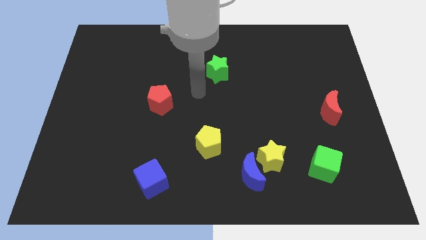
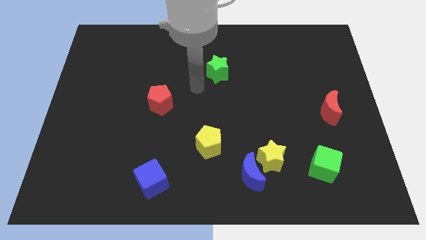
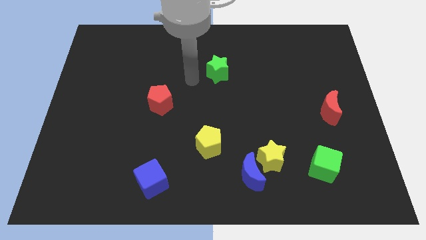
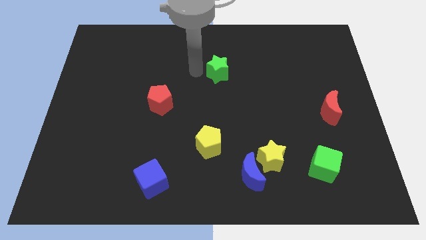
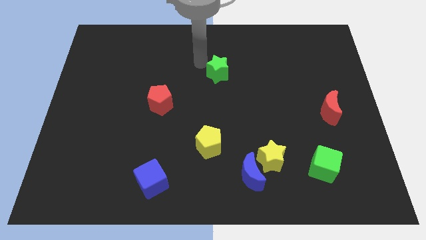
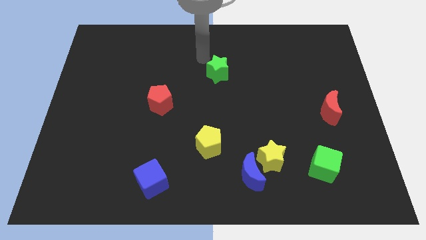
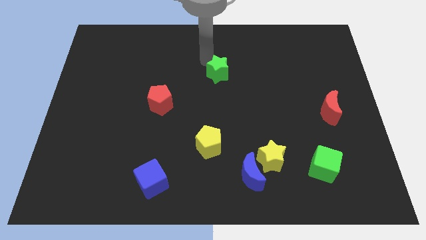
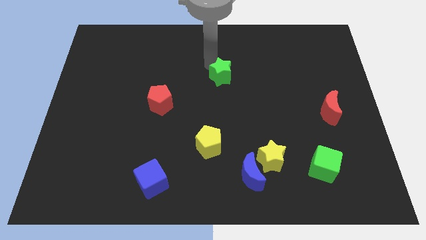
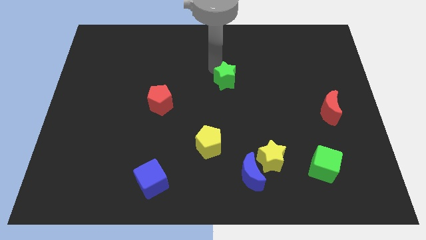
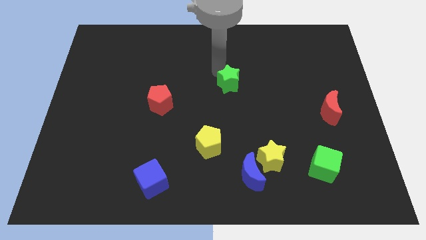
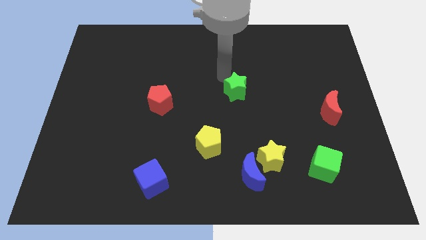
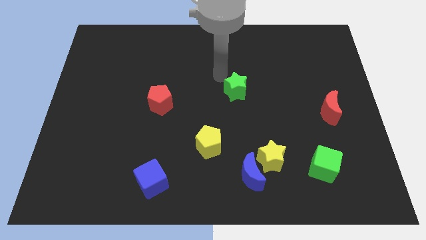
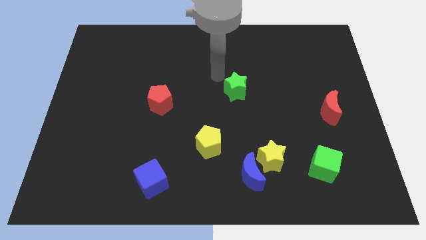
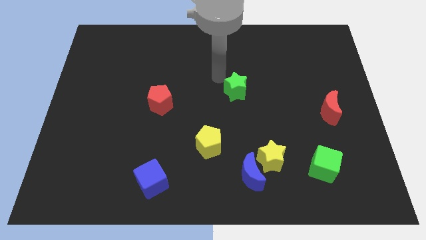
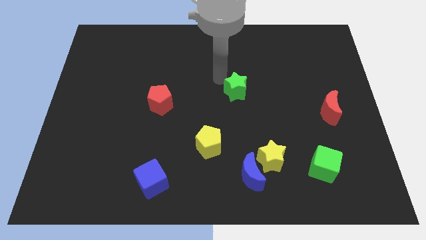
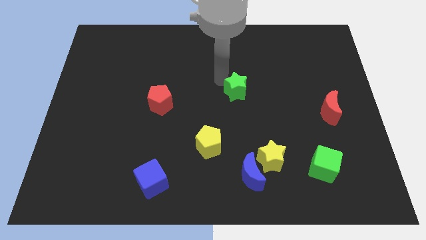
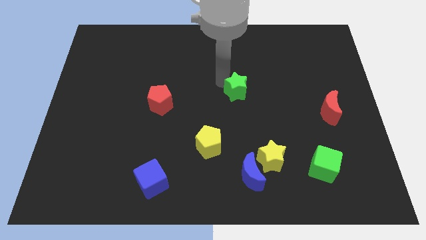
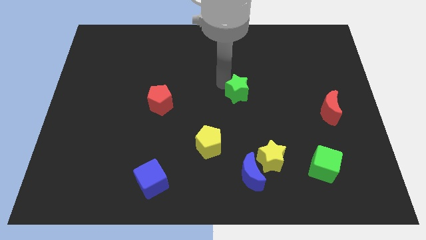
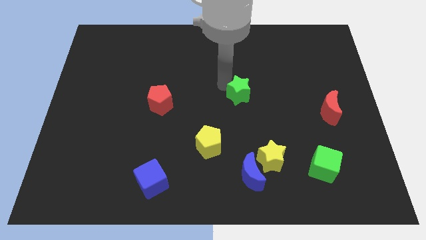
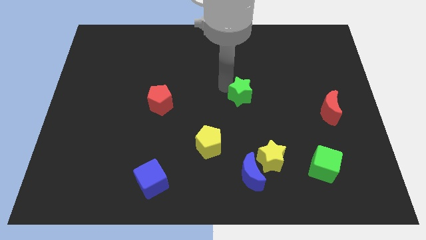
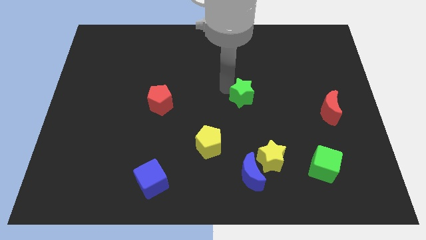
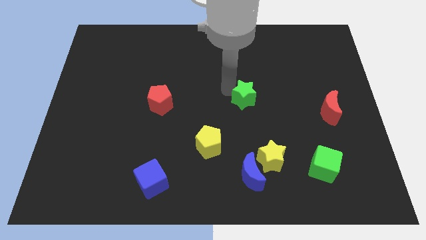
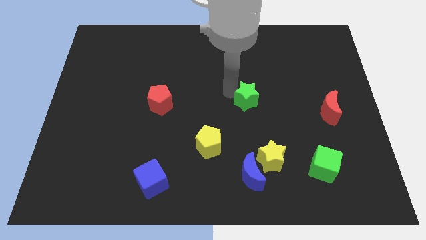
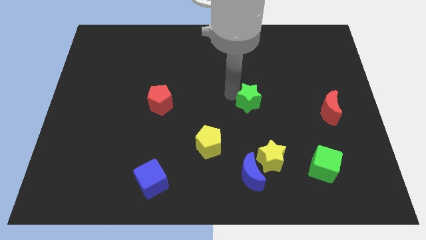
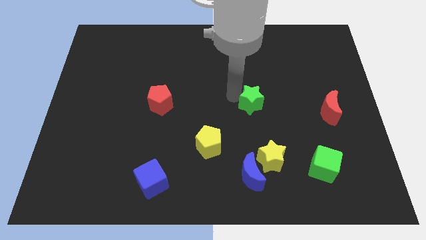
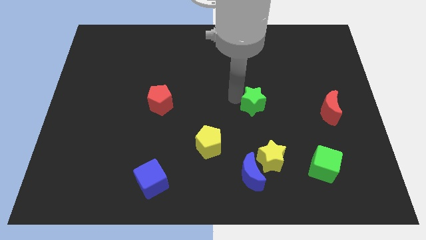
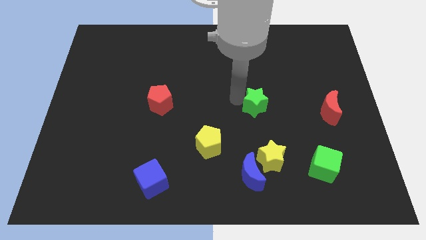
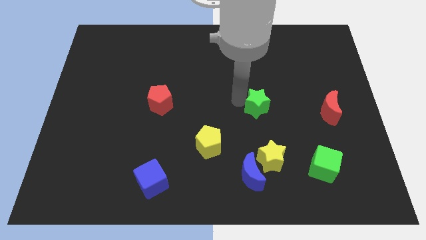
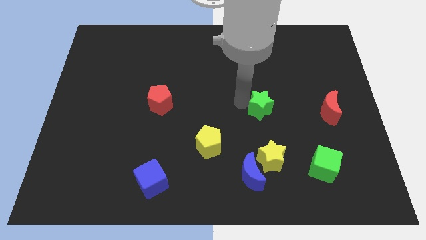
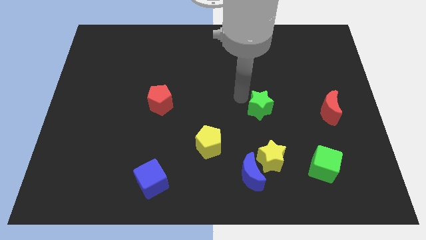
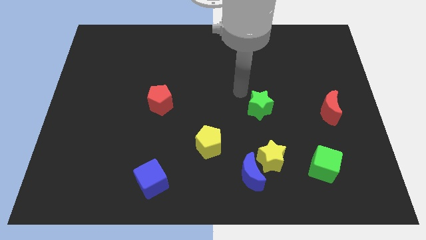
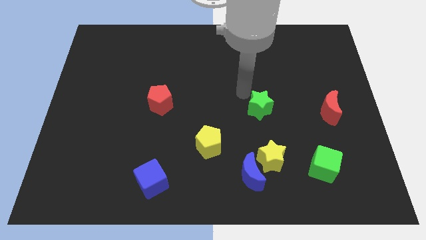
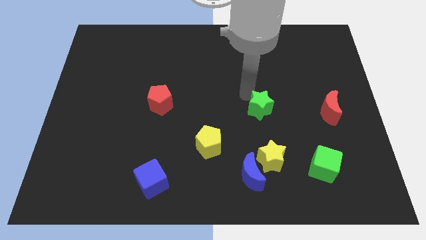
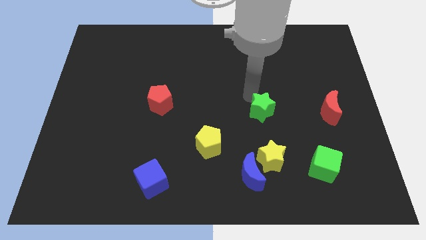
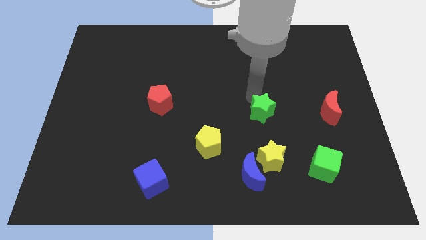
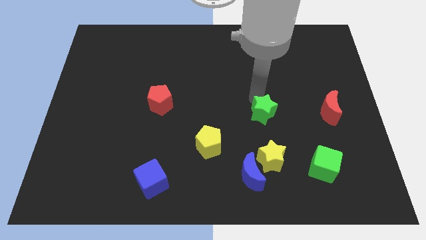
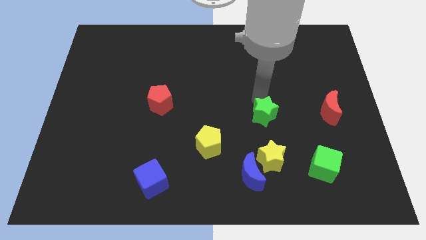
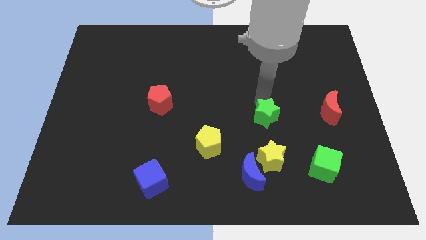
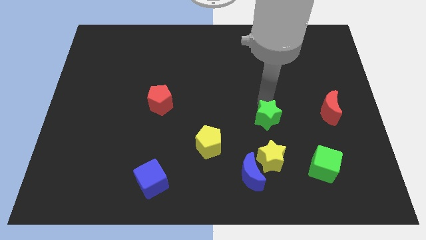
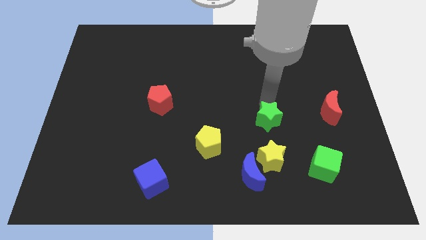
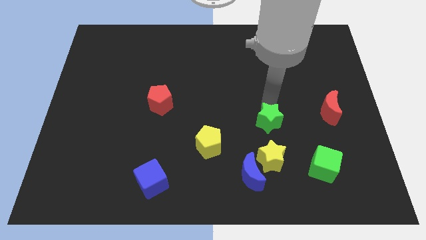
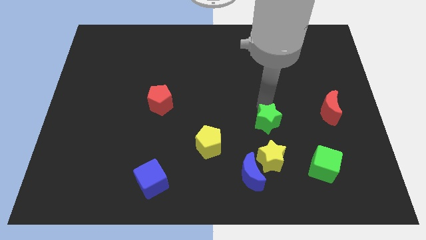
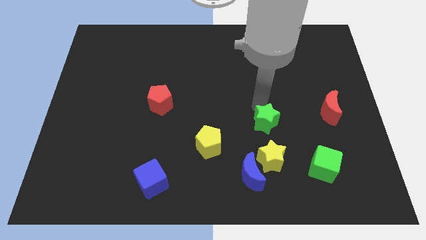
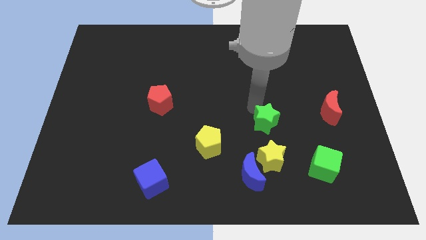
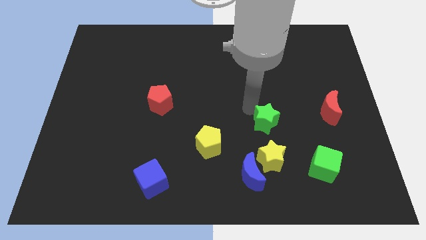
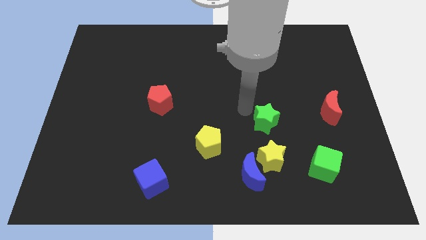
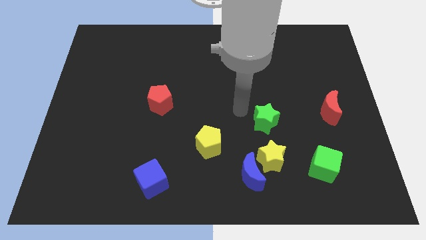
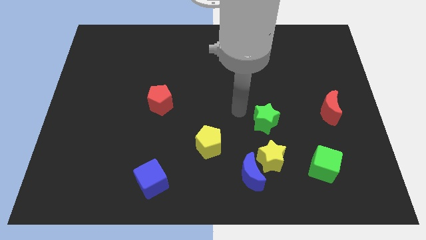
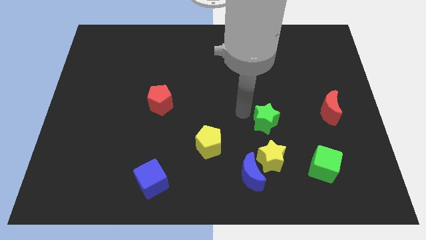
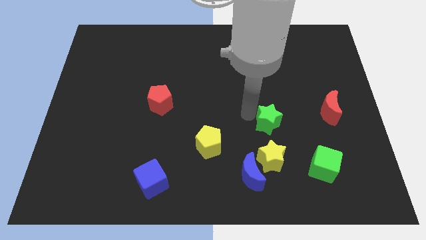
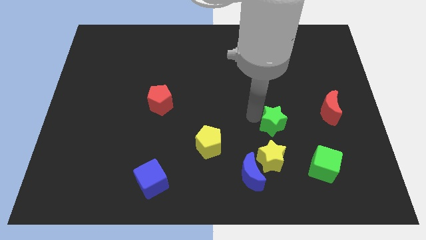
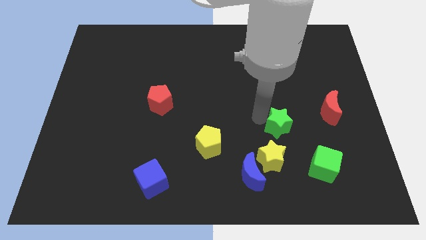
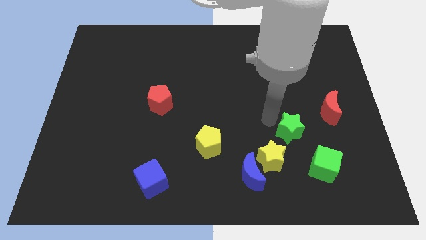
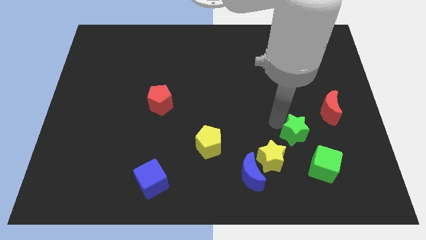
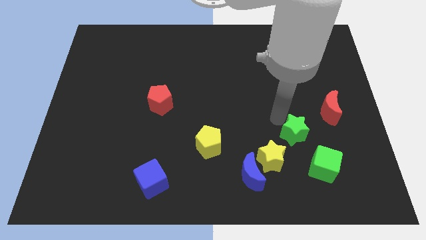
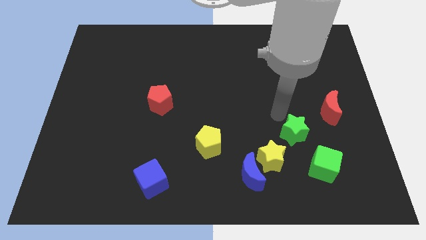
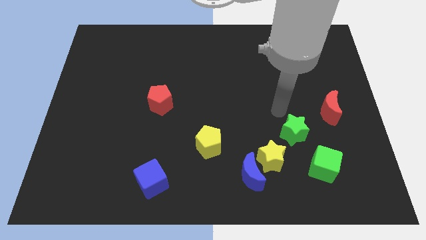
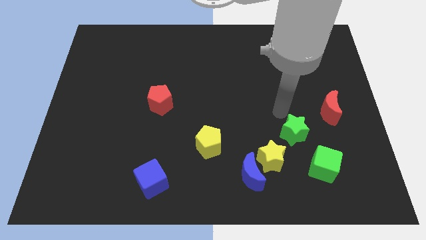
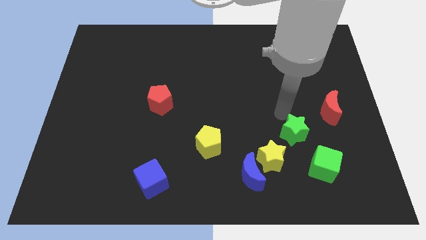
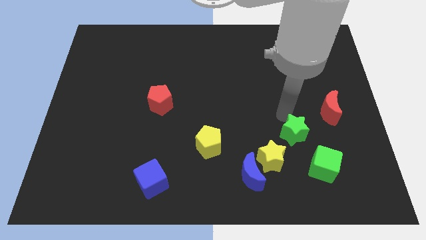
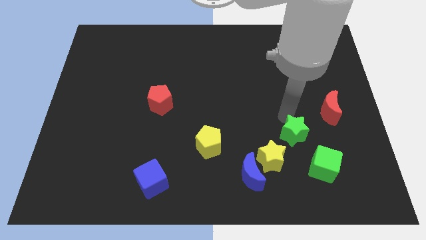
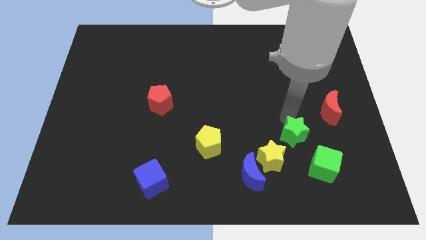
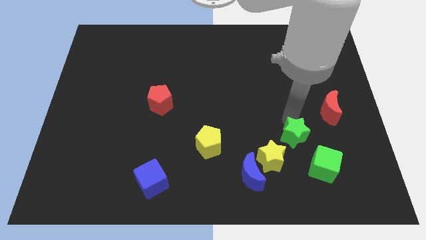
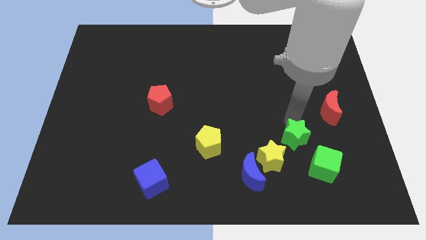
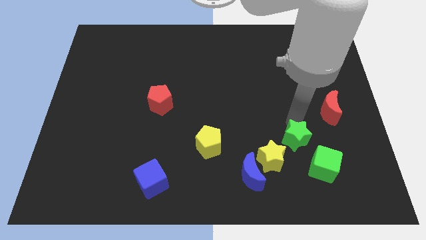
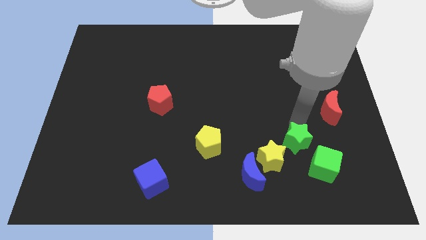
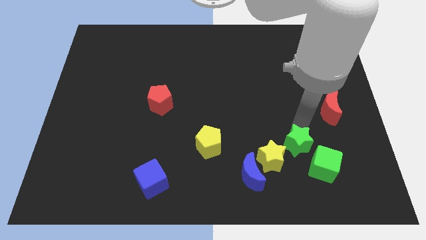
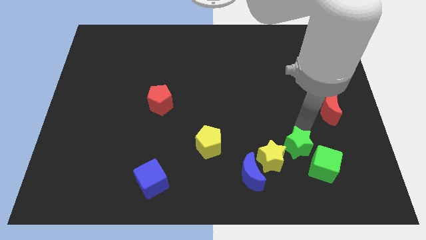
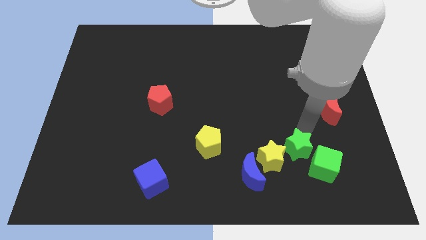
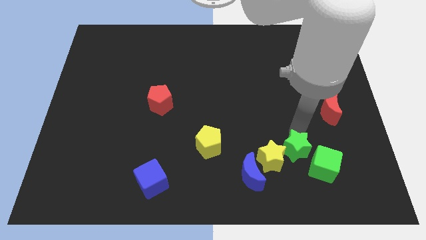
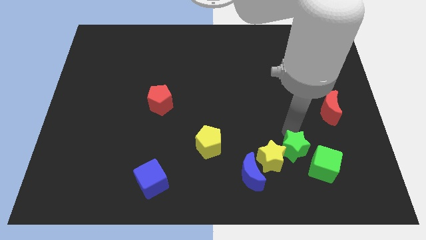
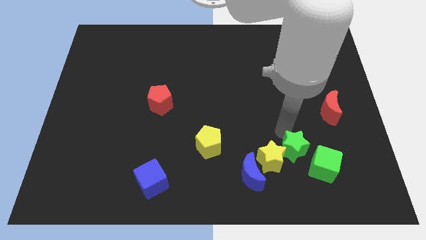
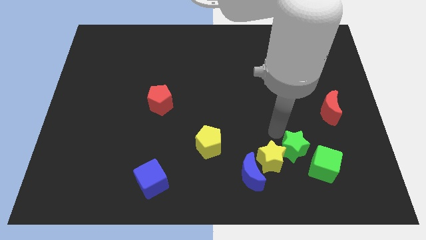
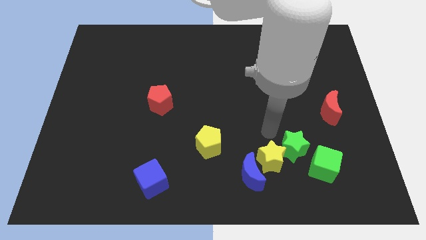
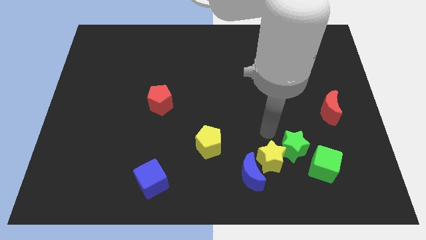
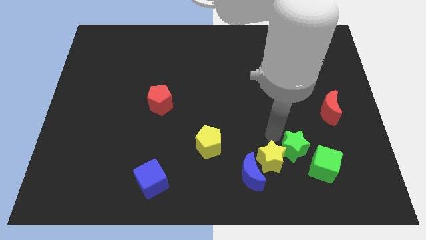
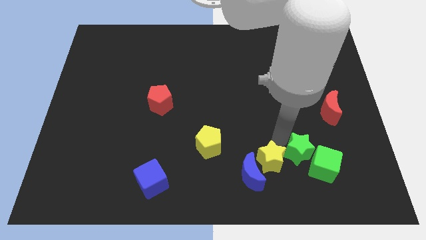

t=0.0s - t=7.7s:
move the green star next to the green cube

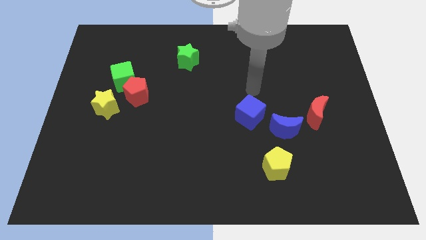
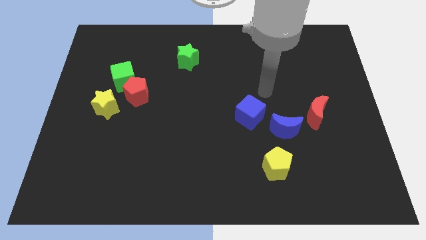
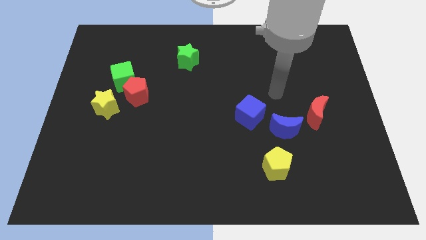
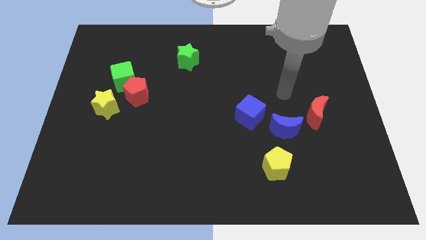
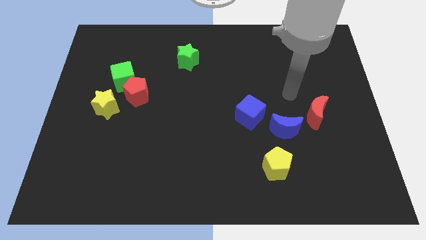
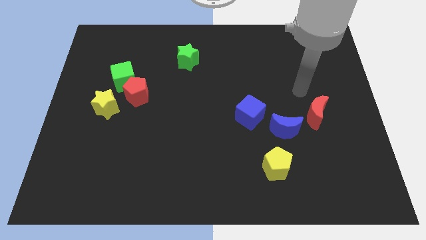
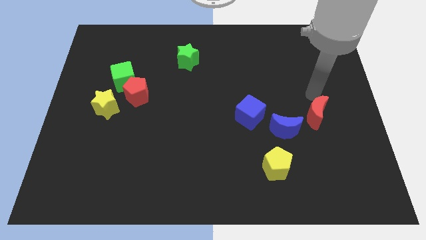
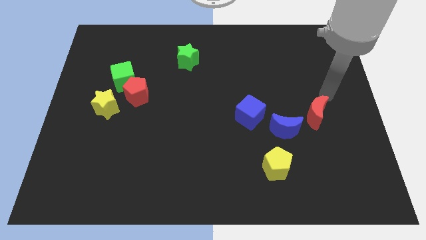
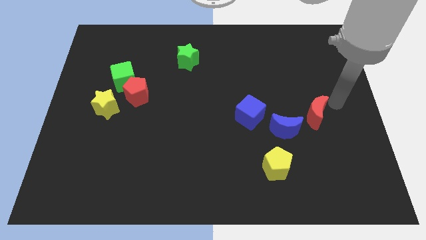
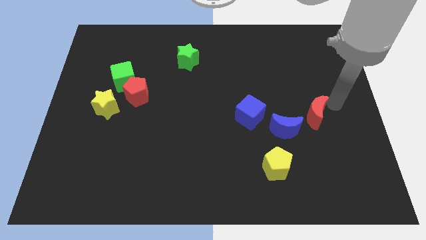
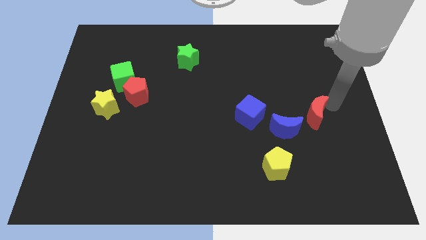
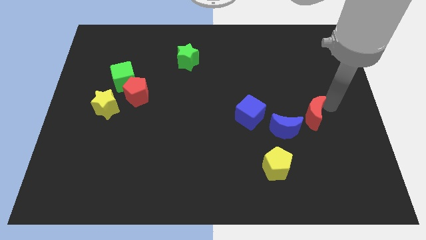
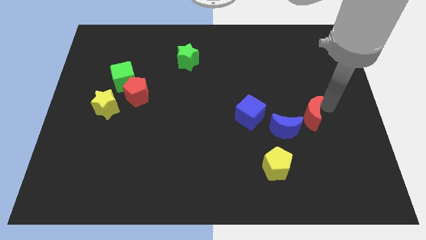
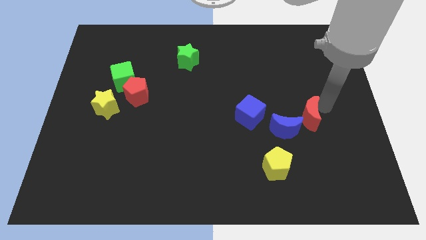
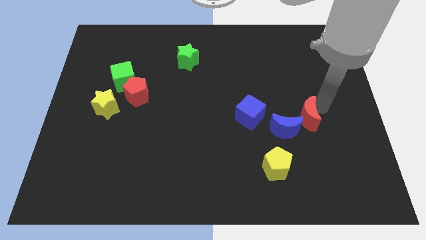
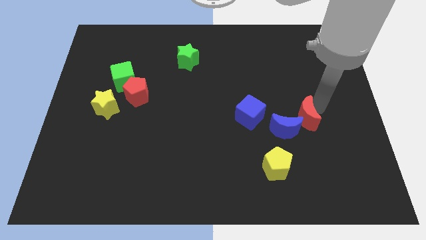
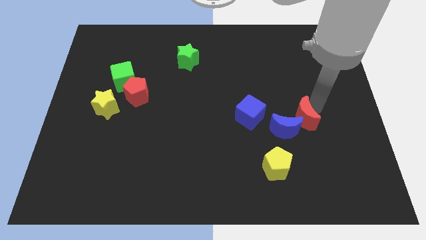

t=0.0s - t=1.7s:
move the red moon close to the blue moon
